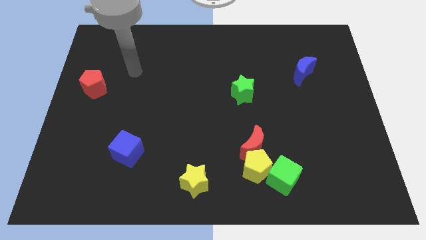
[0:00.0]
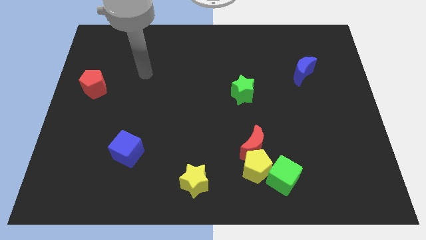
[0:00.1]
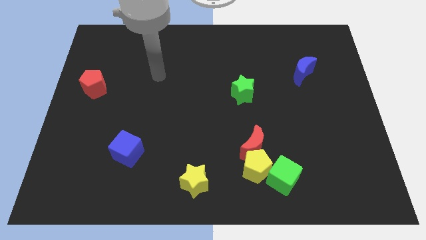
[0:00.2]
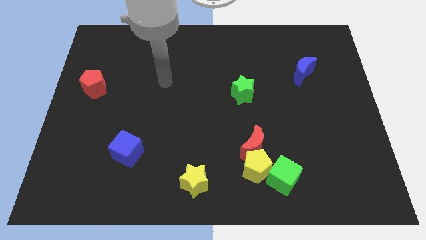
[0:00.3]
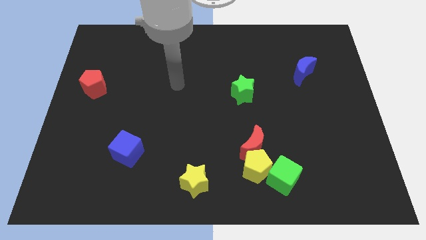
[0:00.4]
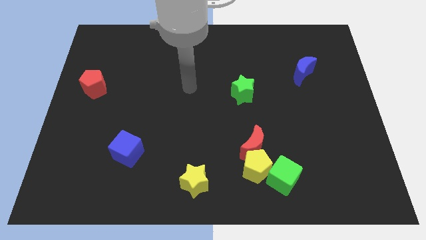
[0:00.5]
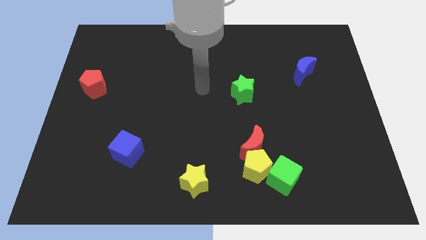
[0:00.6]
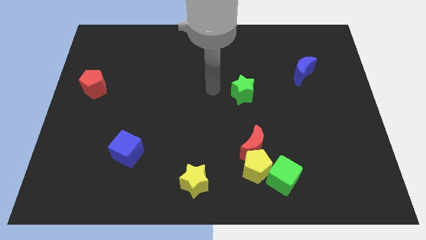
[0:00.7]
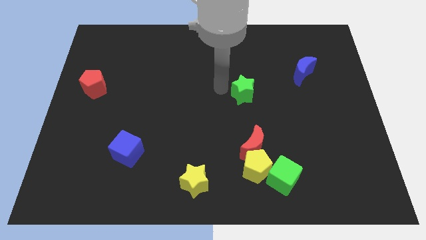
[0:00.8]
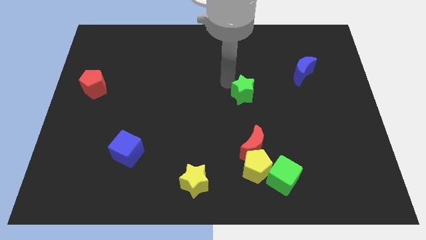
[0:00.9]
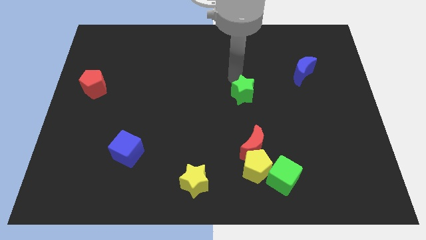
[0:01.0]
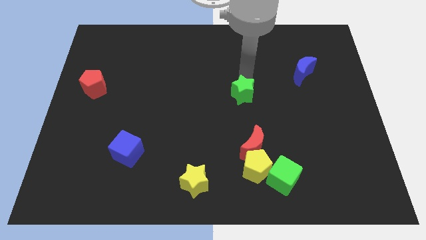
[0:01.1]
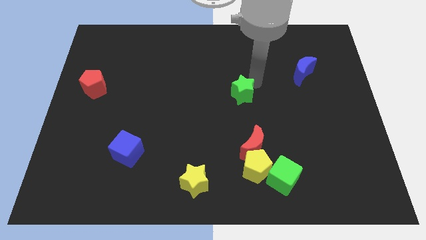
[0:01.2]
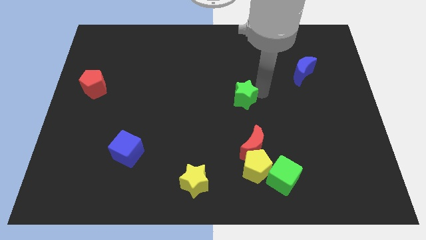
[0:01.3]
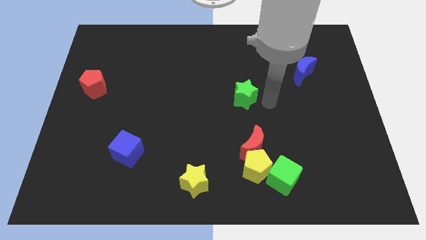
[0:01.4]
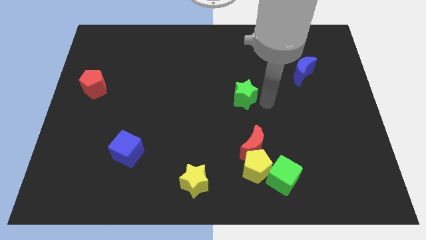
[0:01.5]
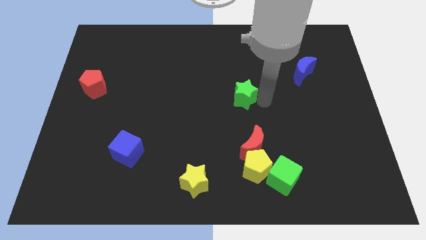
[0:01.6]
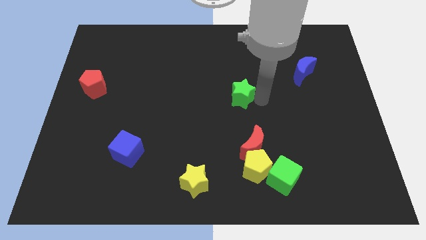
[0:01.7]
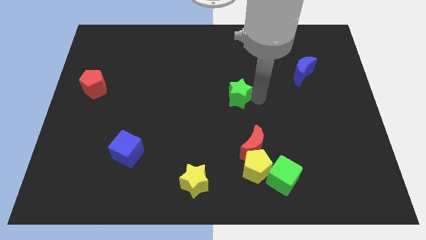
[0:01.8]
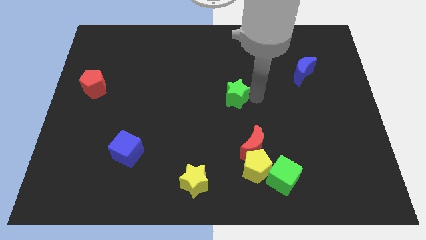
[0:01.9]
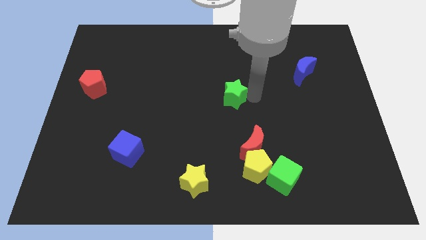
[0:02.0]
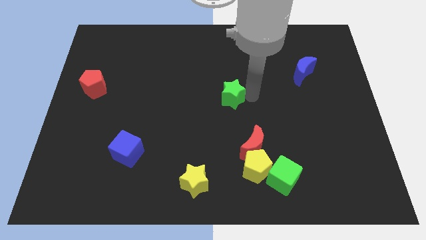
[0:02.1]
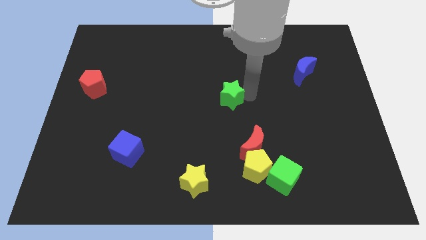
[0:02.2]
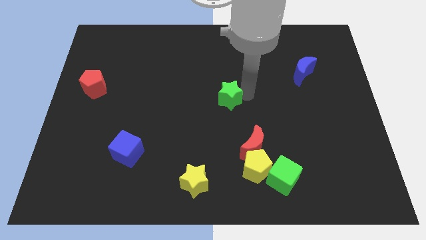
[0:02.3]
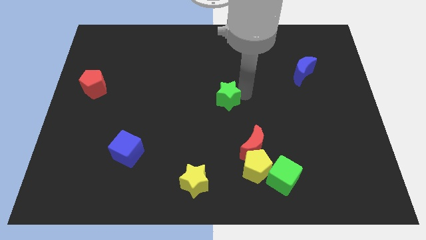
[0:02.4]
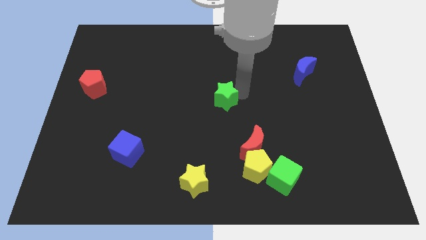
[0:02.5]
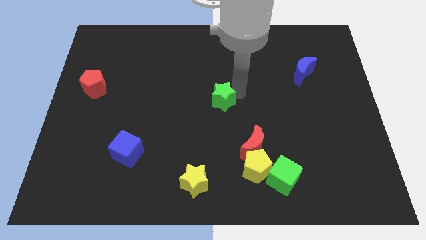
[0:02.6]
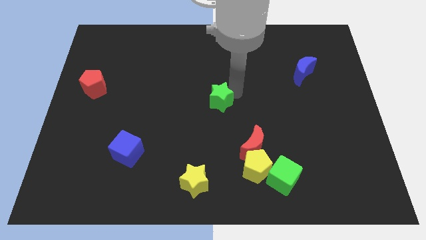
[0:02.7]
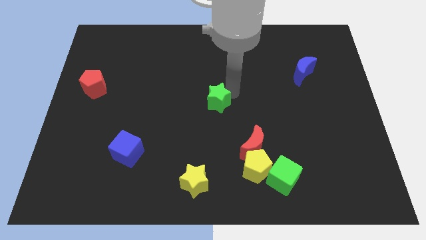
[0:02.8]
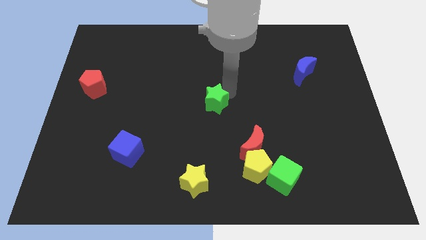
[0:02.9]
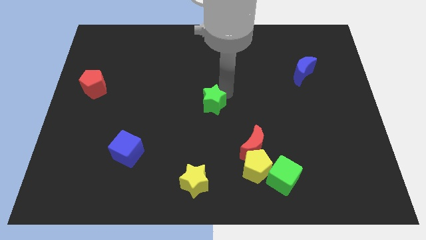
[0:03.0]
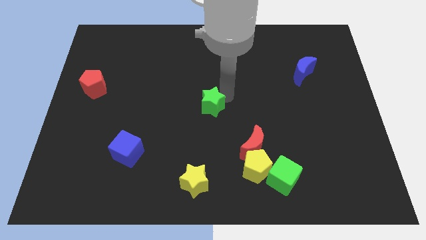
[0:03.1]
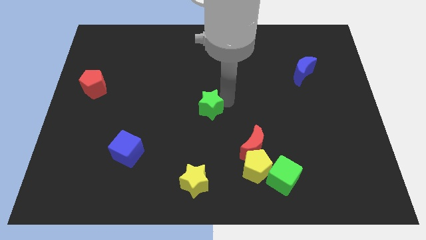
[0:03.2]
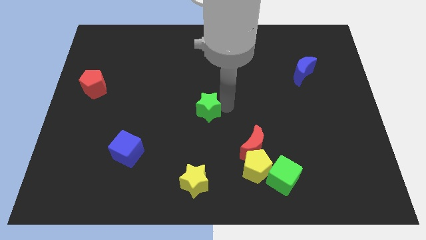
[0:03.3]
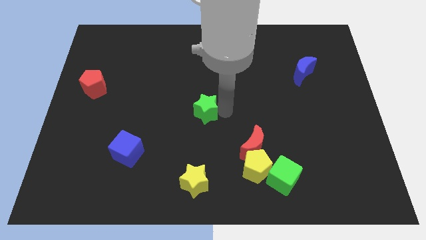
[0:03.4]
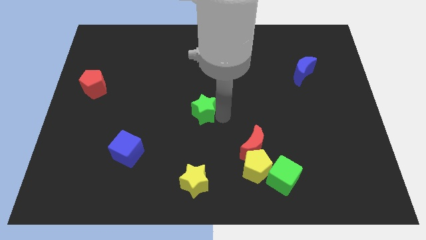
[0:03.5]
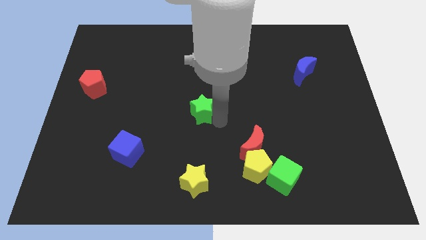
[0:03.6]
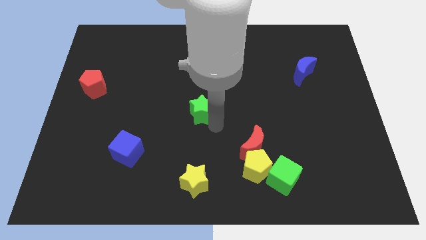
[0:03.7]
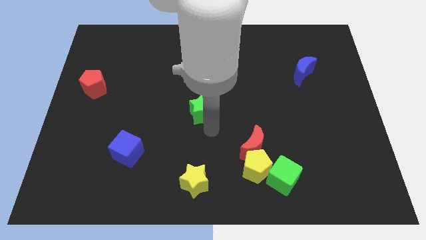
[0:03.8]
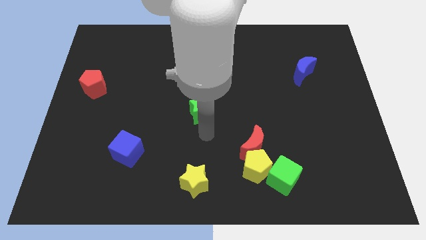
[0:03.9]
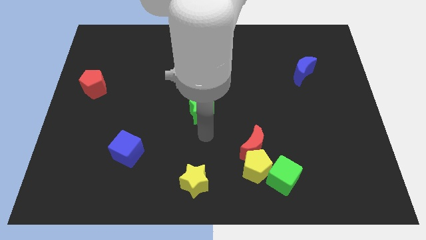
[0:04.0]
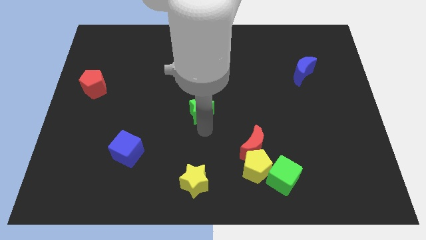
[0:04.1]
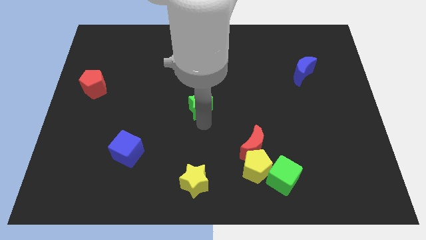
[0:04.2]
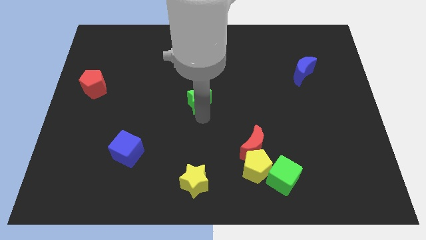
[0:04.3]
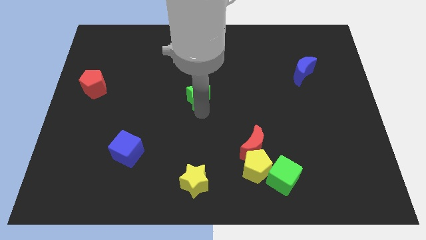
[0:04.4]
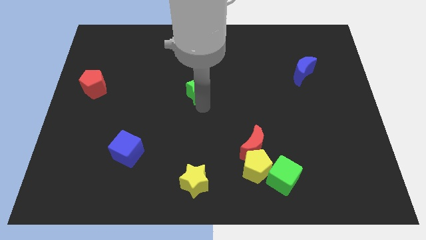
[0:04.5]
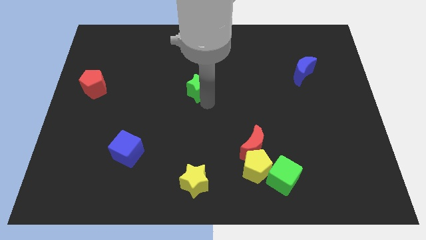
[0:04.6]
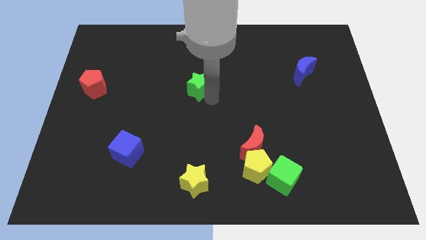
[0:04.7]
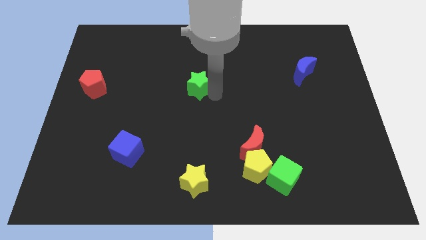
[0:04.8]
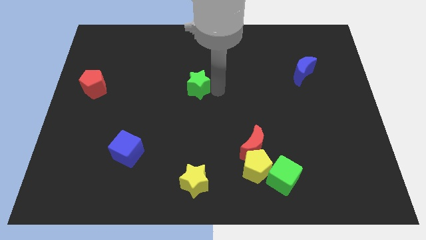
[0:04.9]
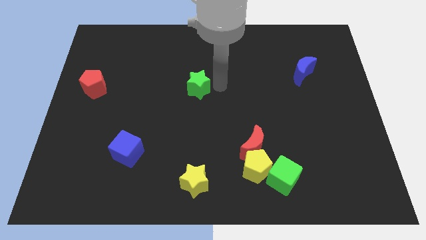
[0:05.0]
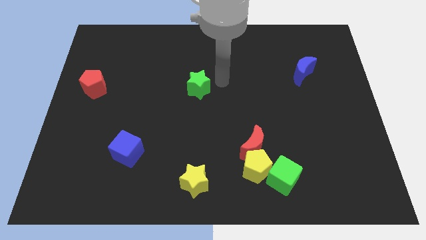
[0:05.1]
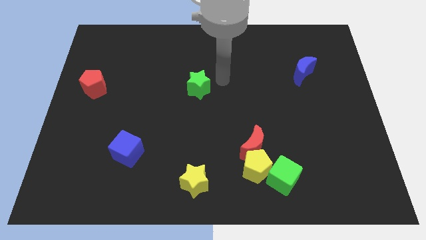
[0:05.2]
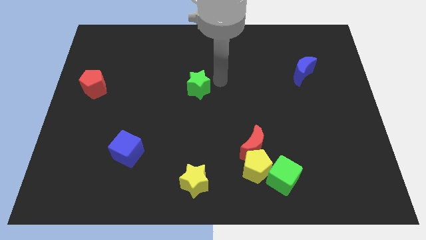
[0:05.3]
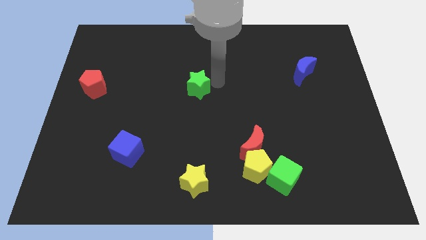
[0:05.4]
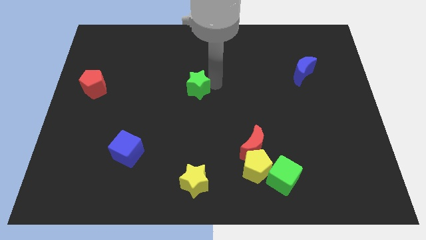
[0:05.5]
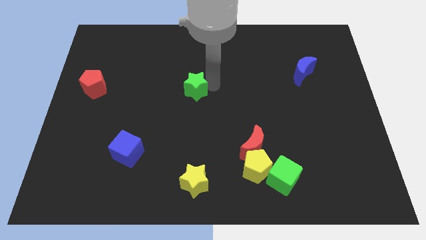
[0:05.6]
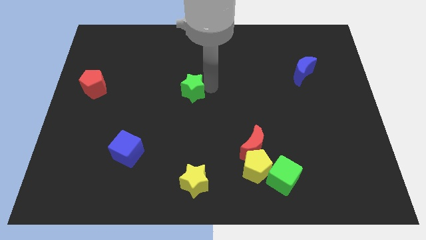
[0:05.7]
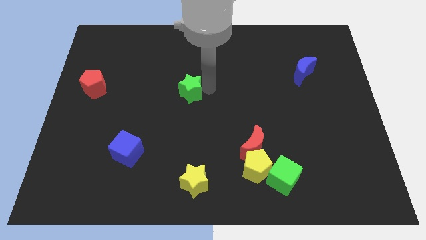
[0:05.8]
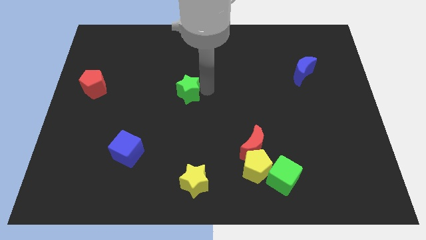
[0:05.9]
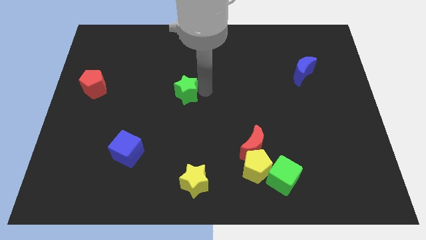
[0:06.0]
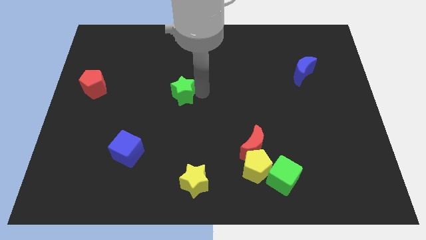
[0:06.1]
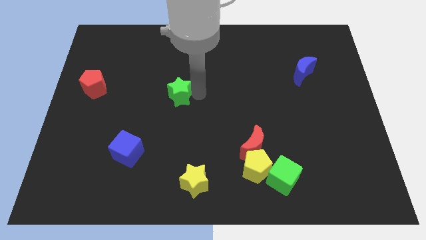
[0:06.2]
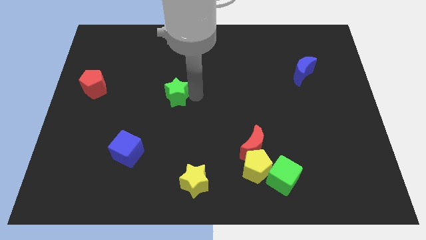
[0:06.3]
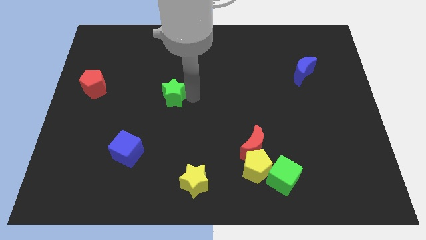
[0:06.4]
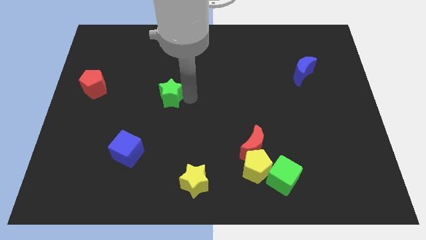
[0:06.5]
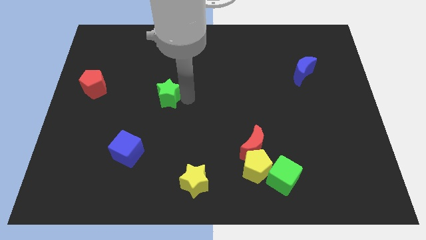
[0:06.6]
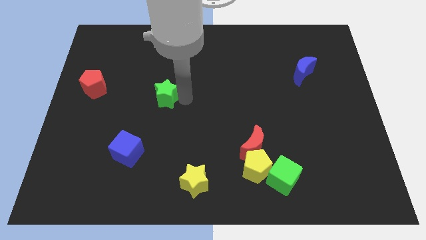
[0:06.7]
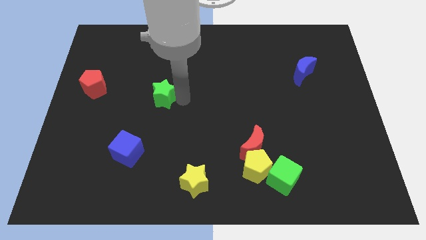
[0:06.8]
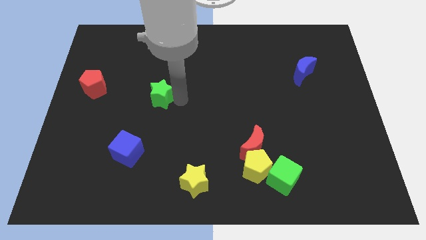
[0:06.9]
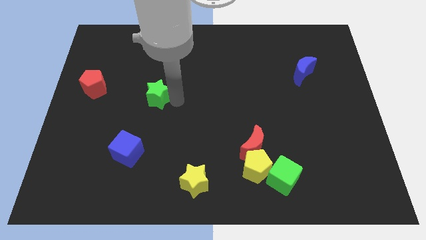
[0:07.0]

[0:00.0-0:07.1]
slide the green star left

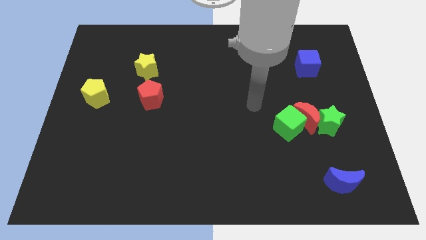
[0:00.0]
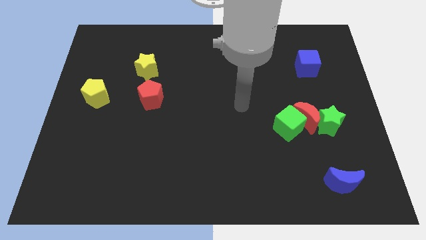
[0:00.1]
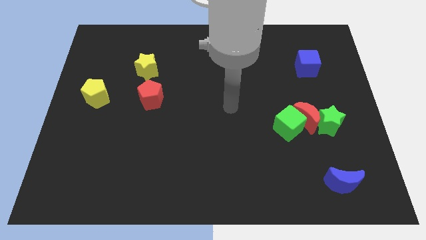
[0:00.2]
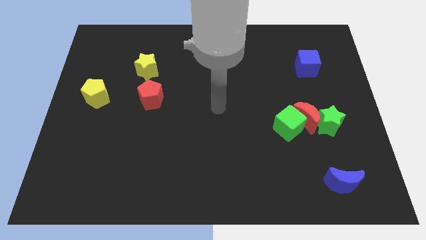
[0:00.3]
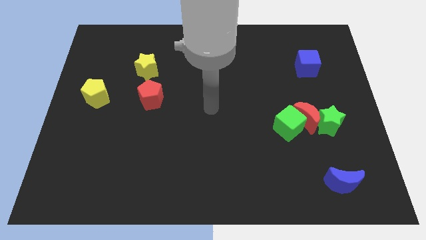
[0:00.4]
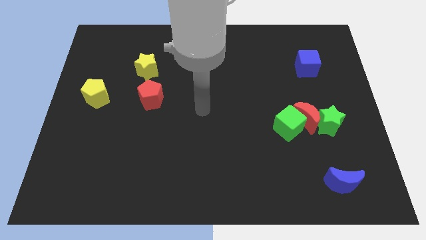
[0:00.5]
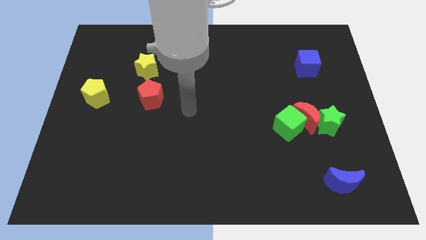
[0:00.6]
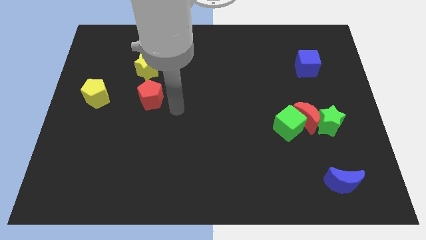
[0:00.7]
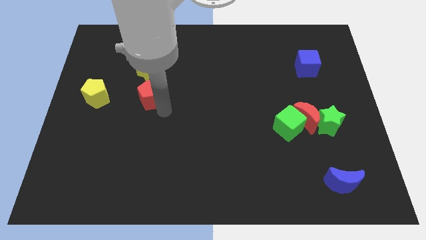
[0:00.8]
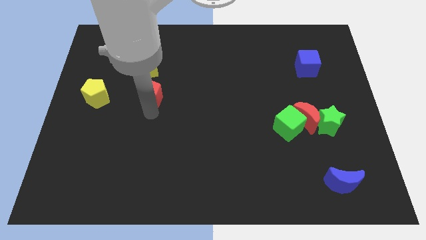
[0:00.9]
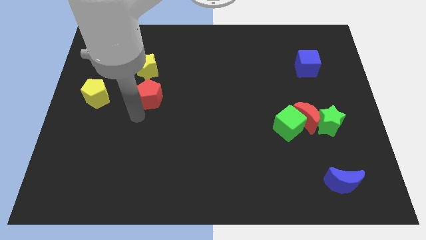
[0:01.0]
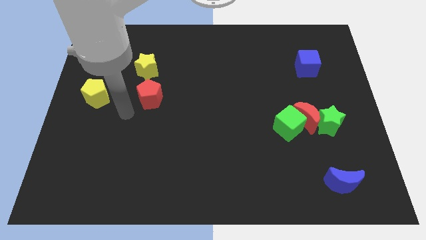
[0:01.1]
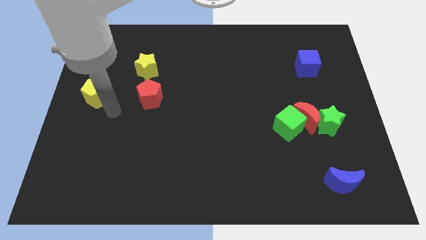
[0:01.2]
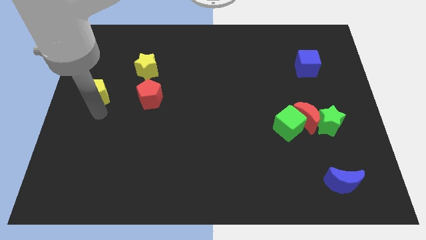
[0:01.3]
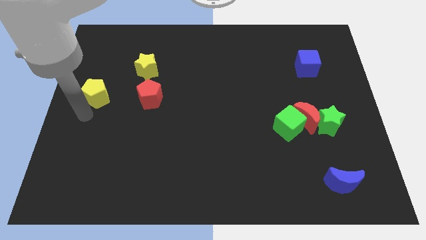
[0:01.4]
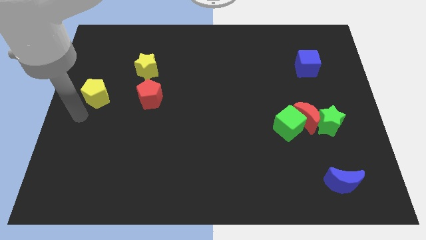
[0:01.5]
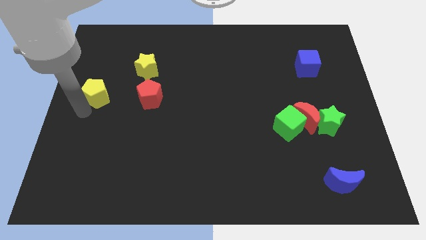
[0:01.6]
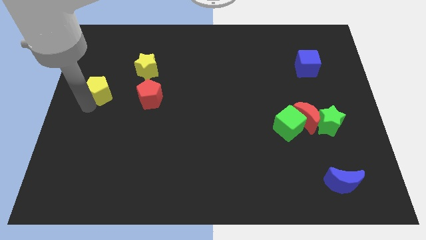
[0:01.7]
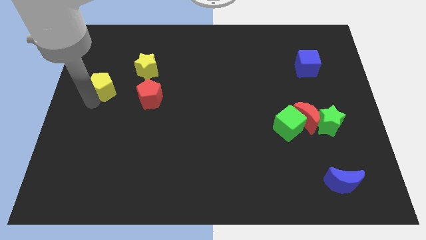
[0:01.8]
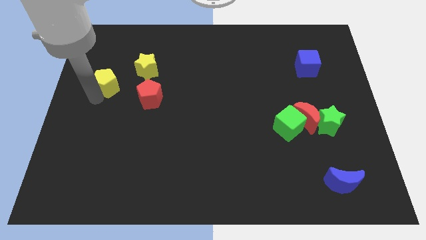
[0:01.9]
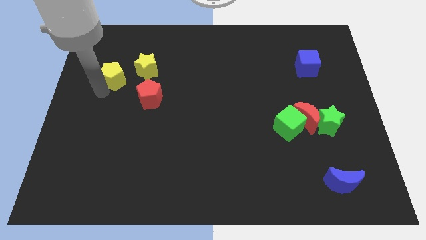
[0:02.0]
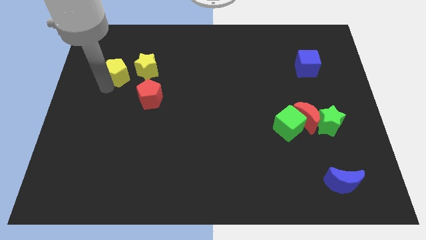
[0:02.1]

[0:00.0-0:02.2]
slightly move the yellow pentagon up and right diagonally
